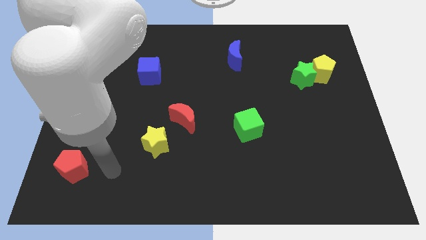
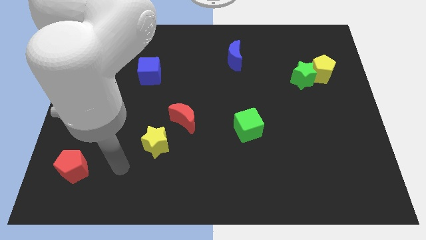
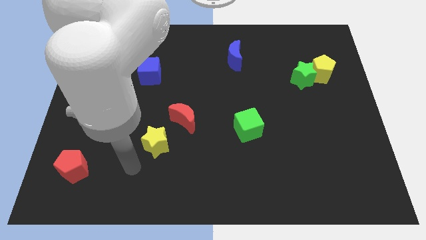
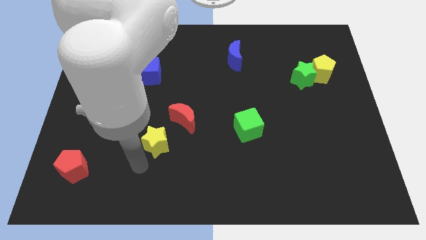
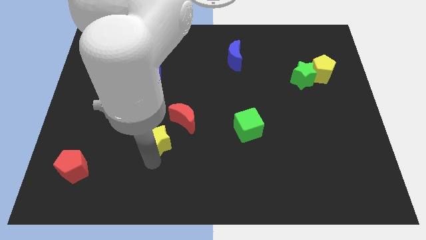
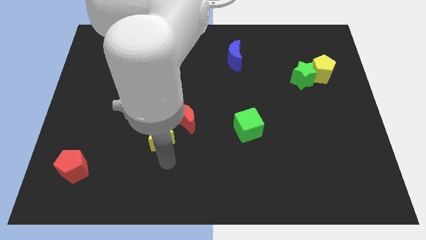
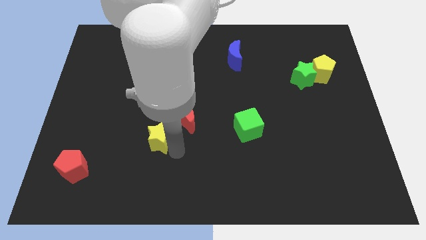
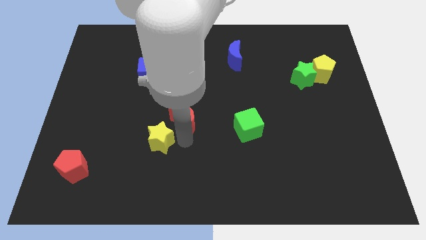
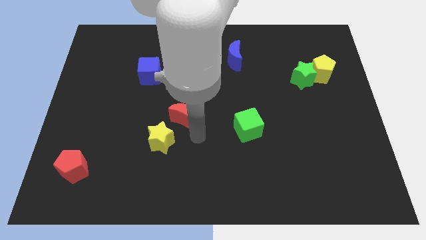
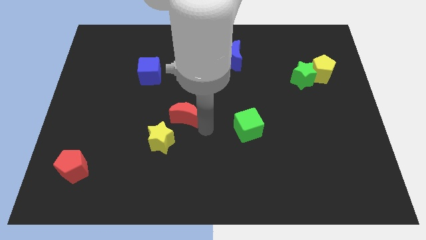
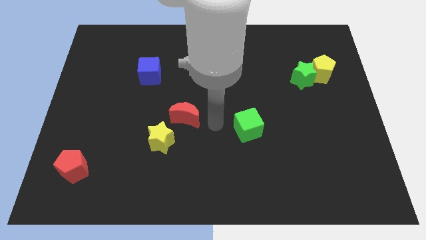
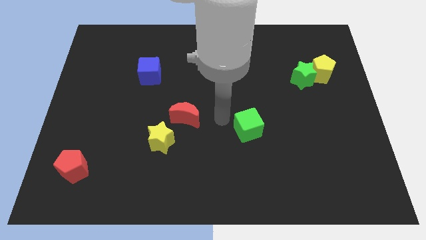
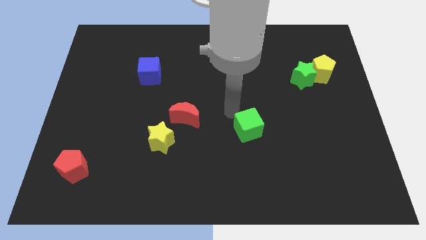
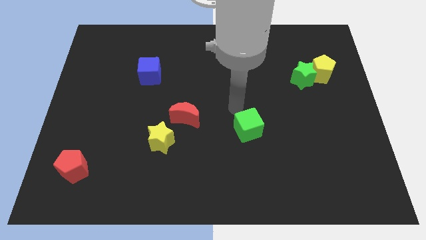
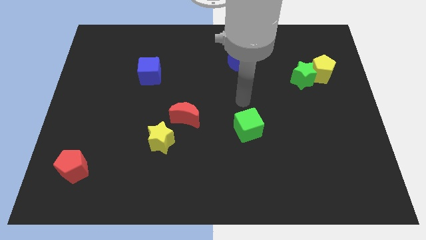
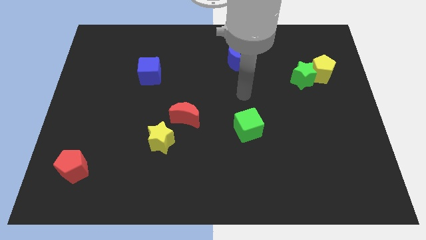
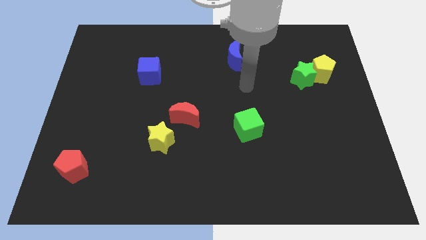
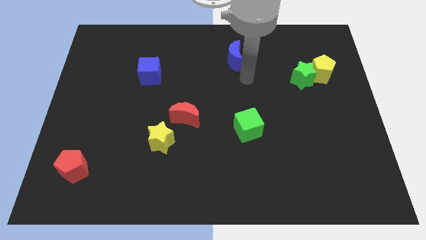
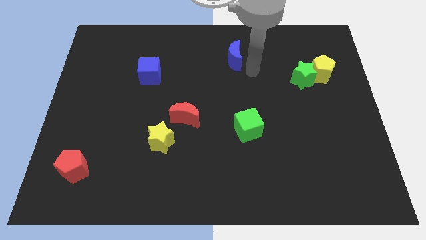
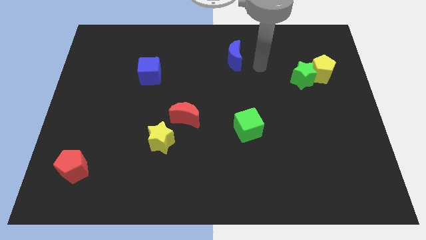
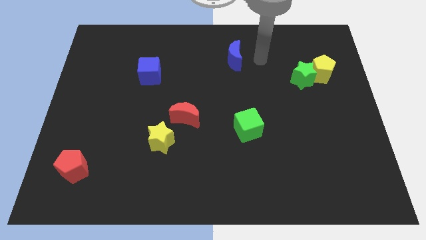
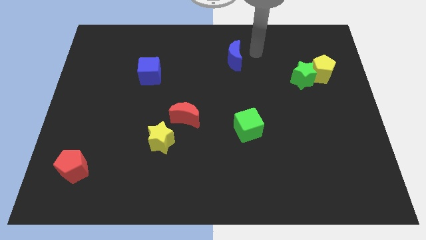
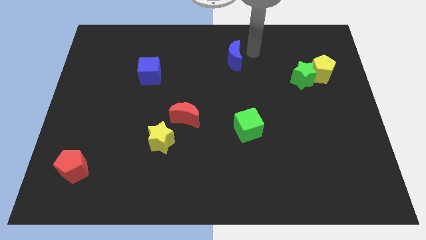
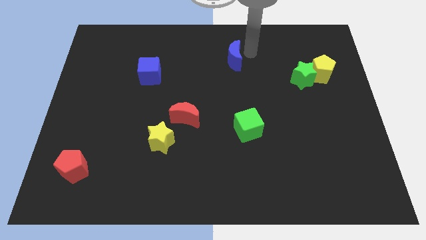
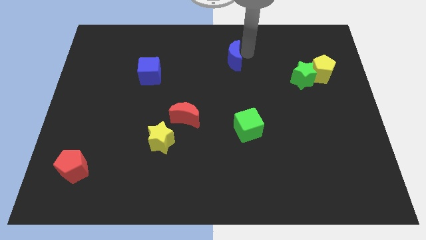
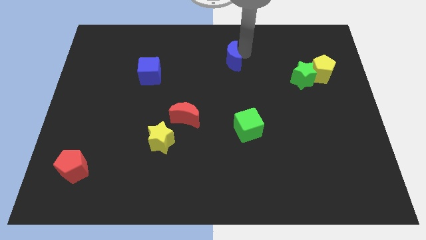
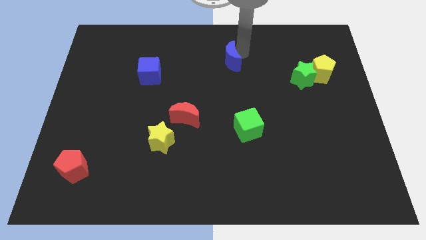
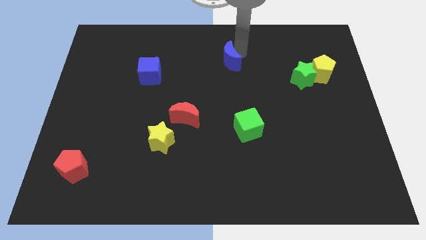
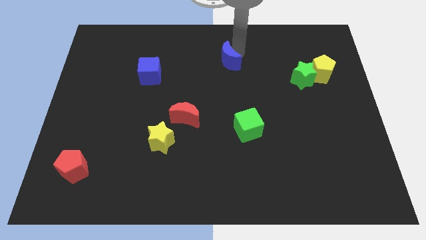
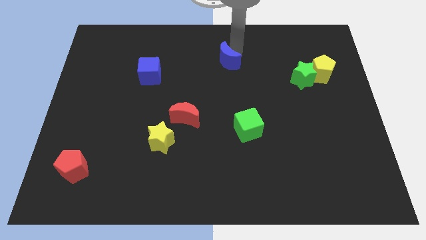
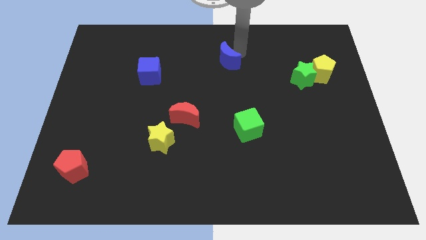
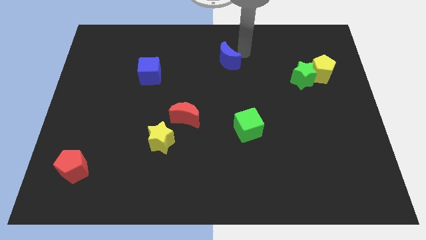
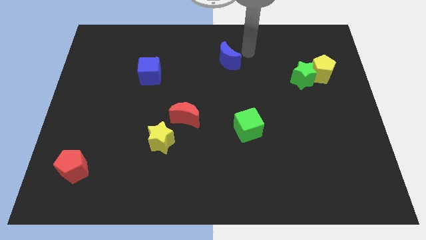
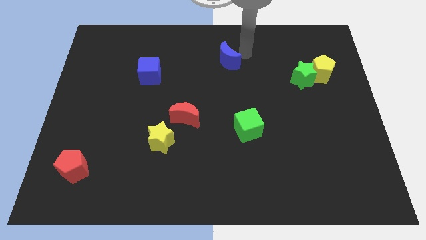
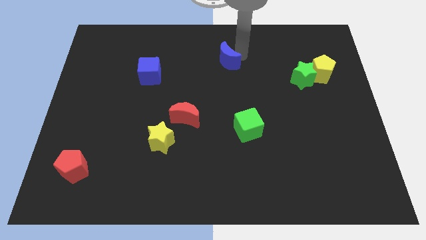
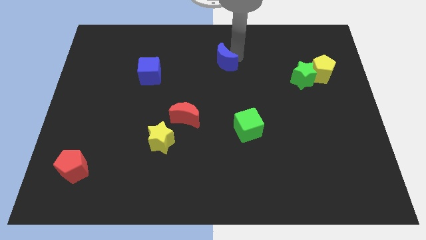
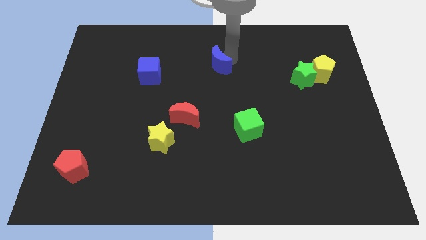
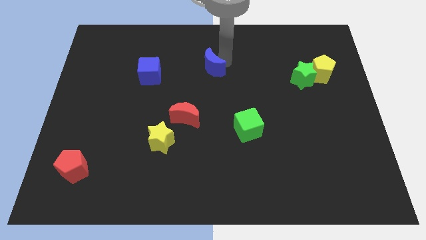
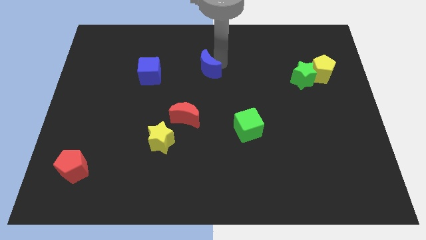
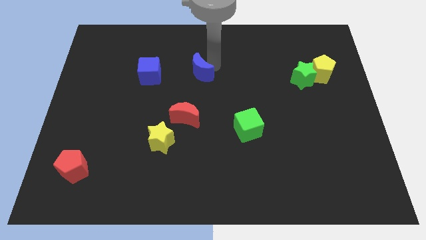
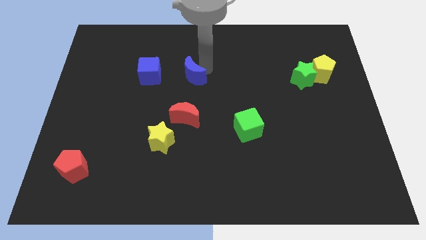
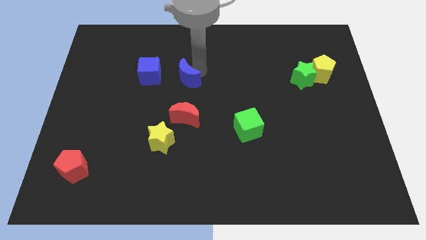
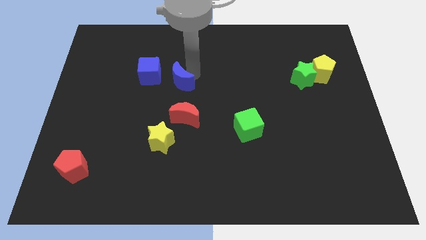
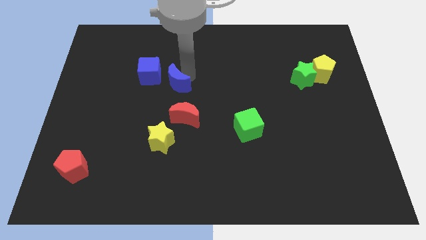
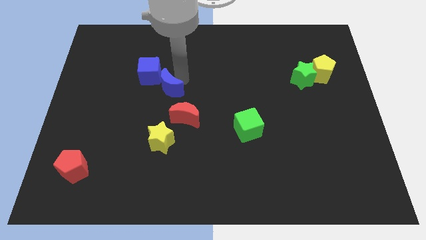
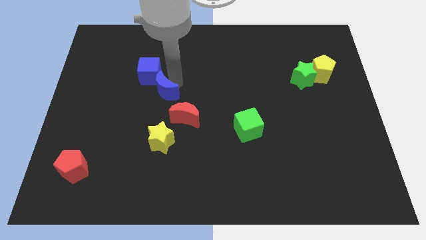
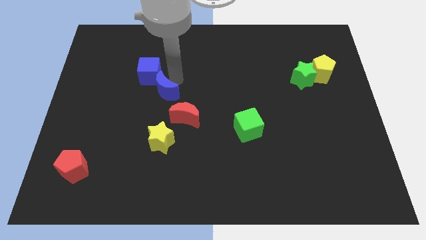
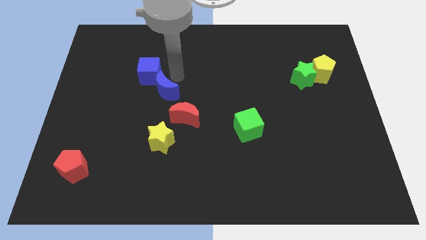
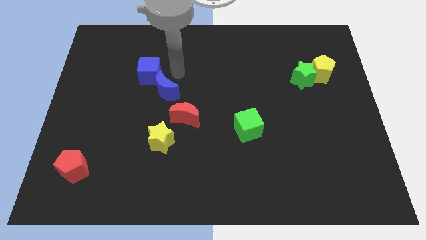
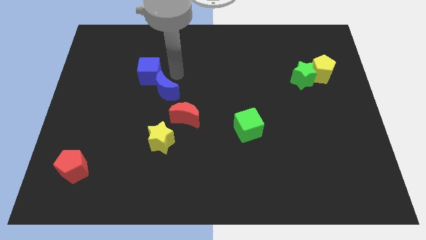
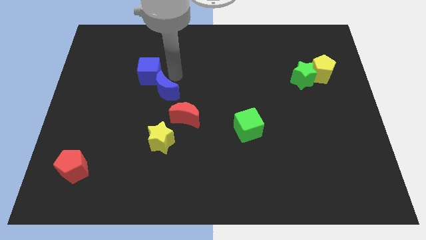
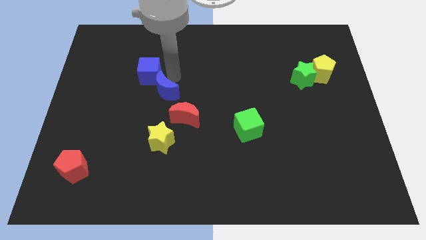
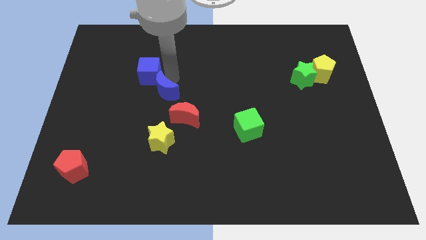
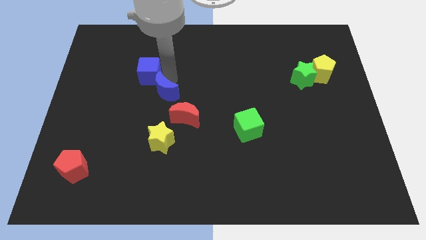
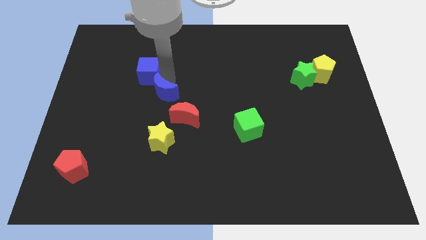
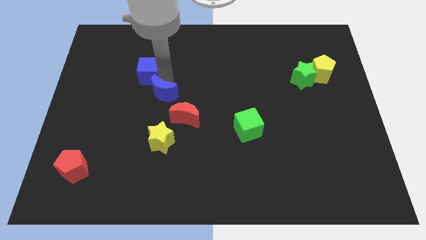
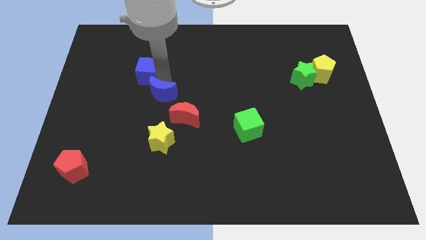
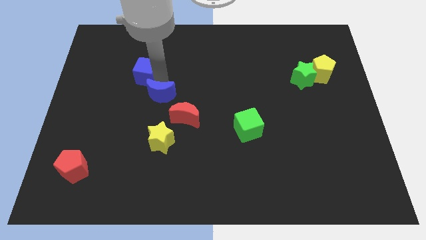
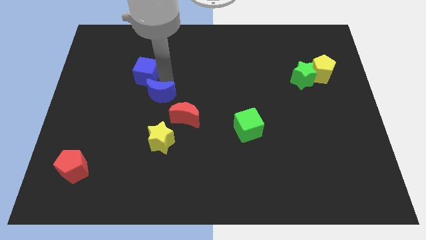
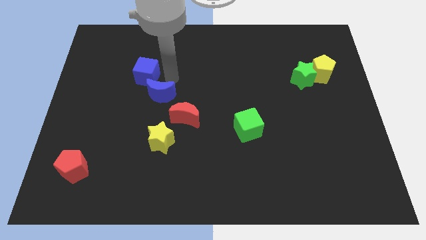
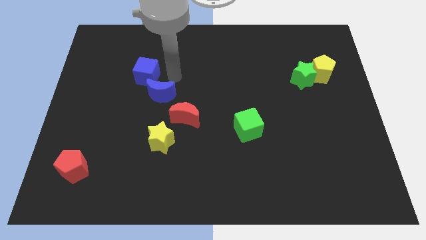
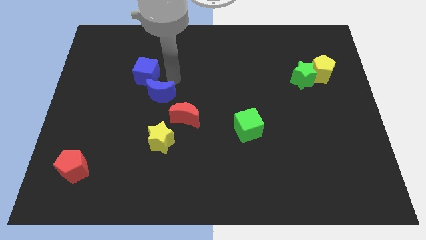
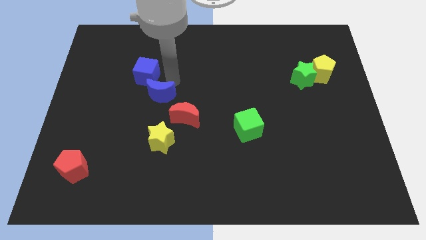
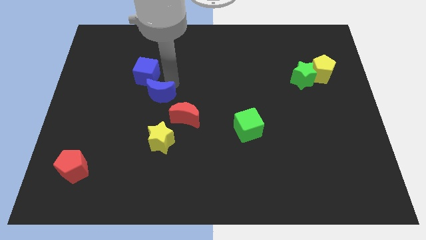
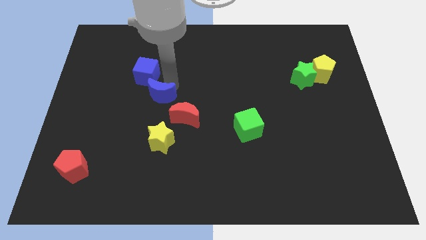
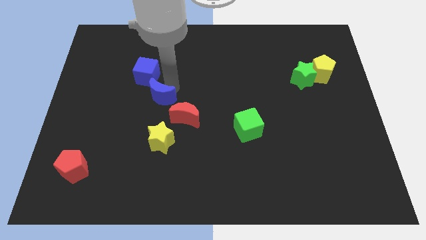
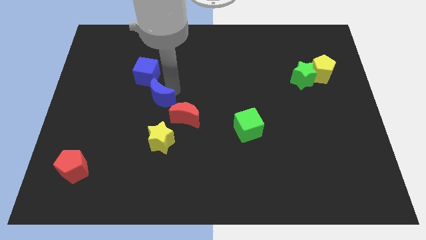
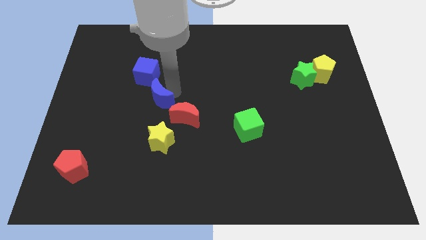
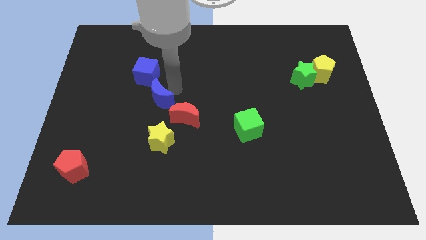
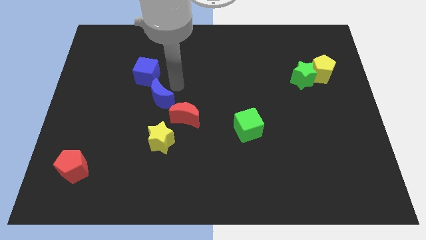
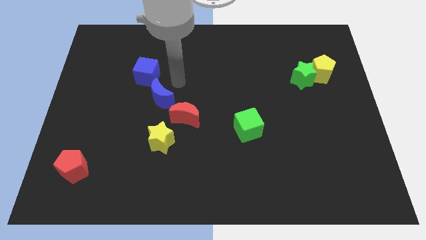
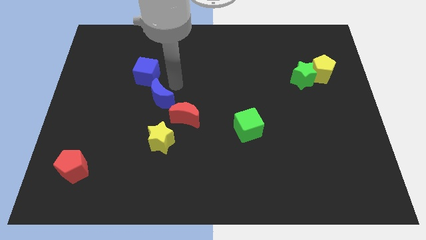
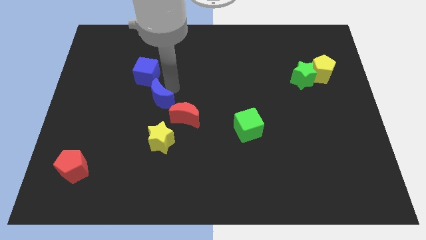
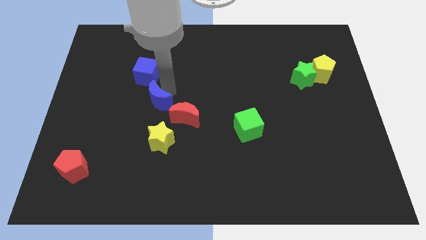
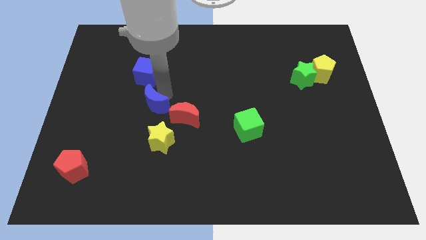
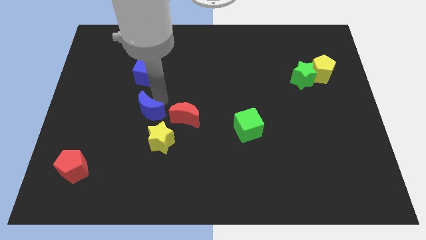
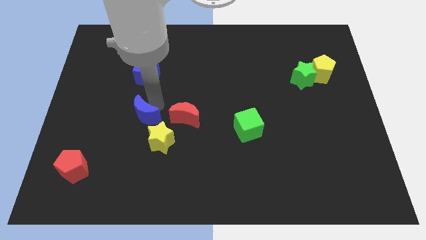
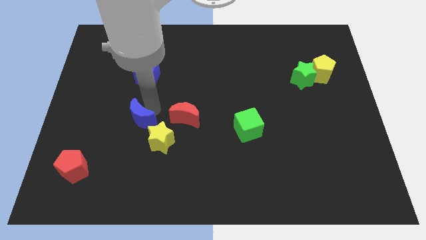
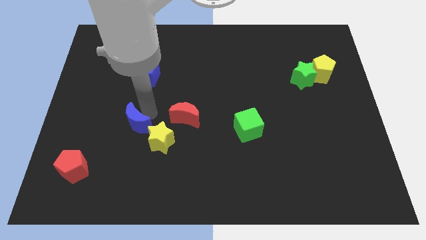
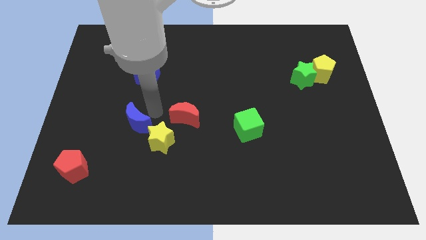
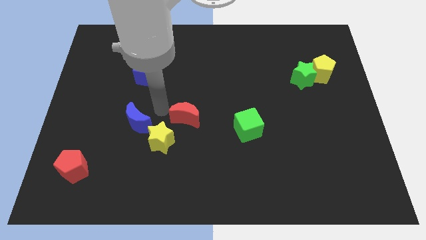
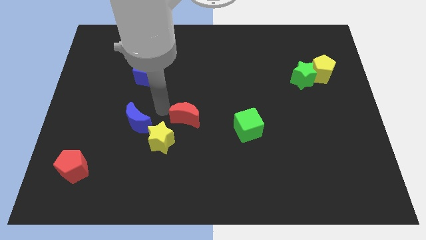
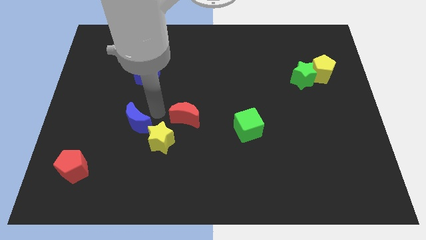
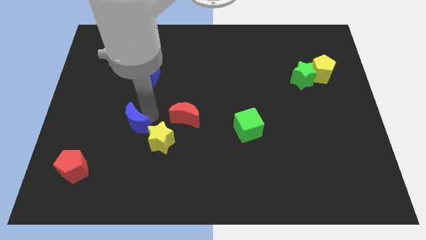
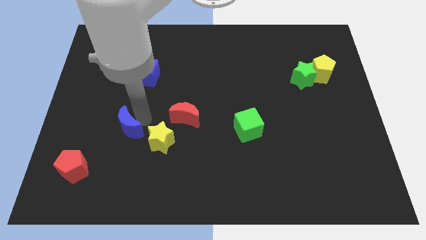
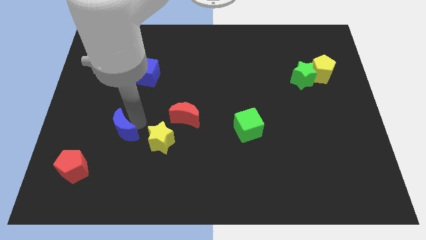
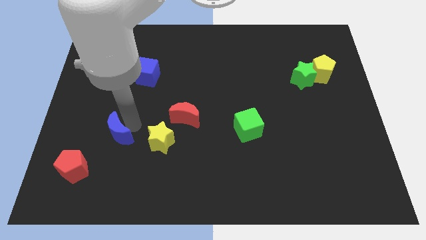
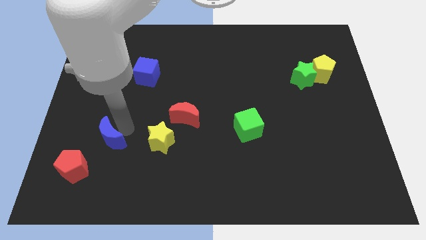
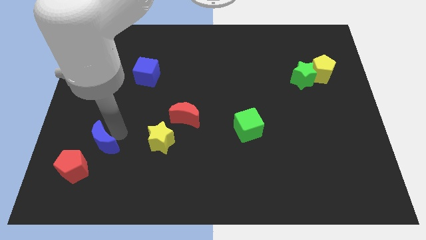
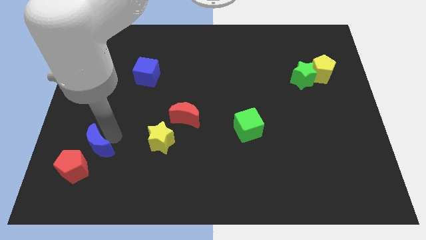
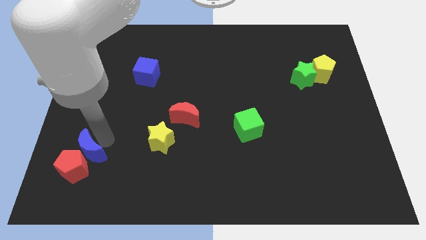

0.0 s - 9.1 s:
put the blue moon next to the red pentagon
